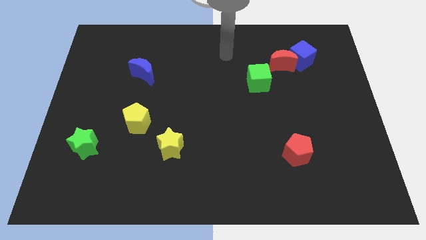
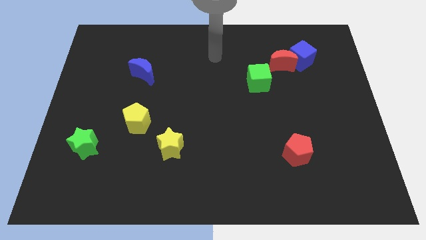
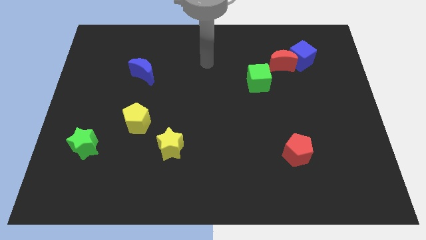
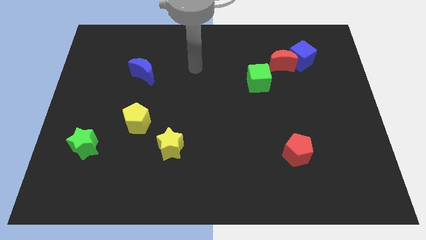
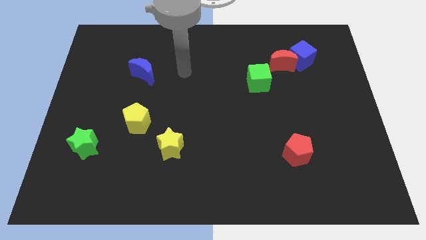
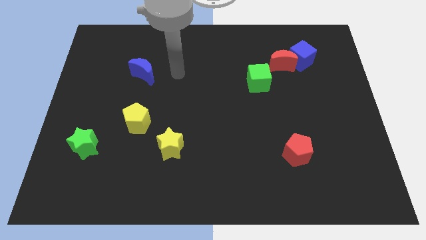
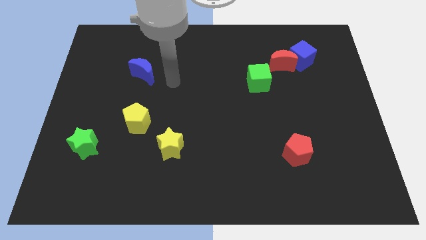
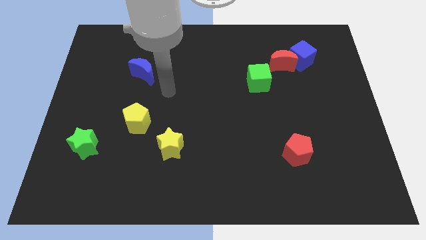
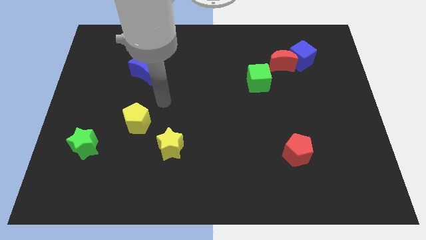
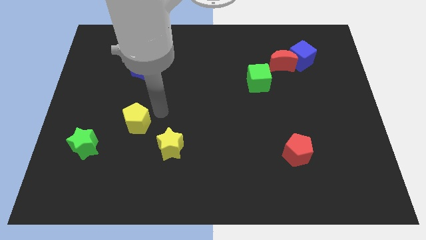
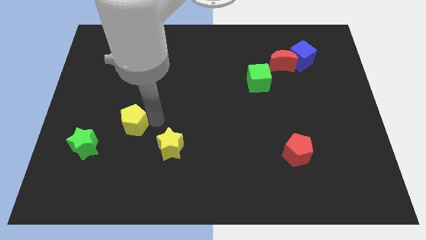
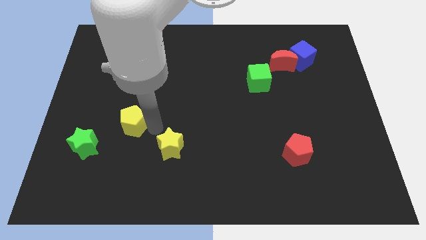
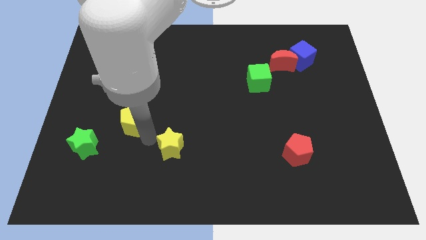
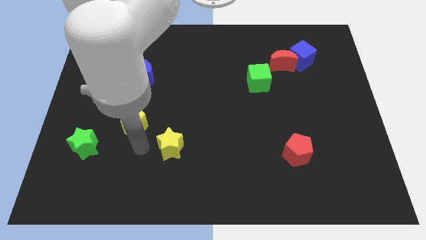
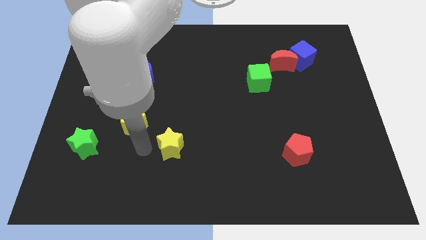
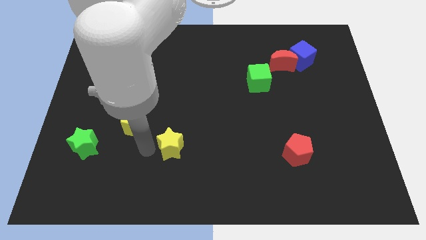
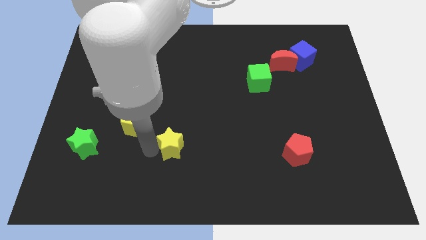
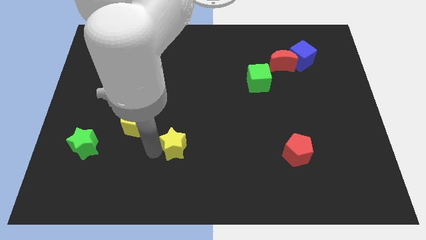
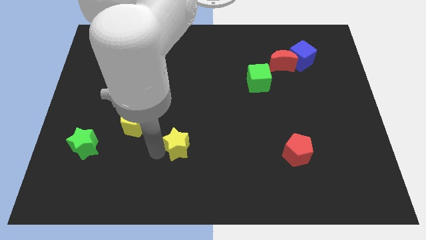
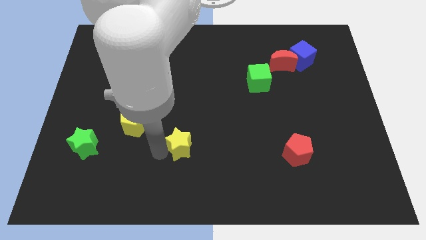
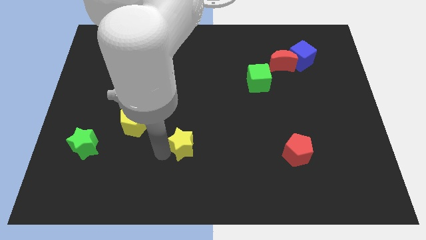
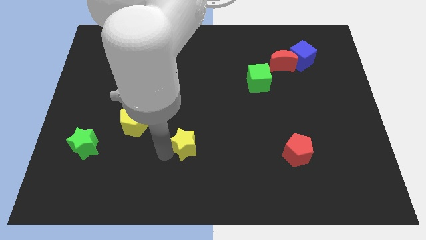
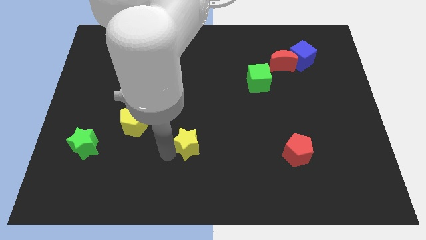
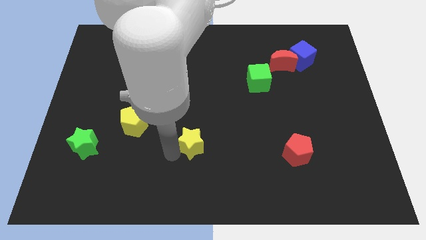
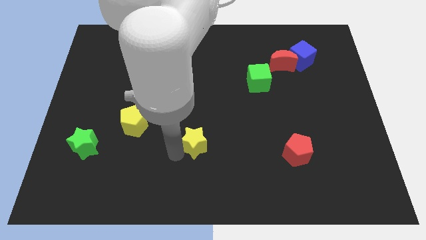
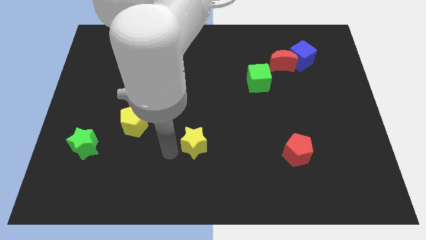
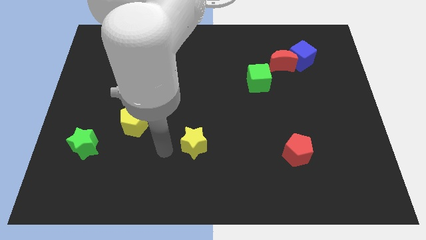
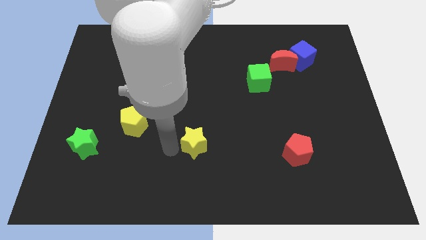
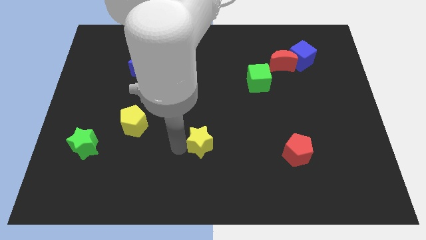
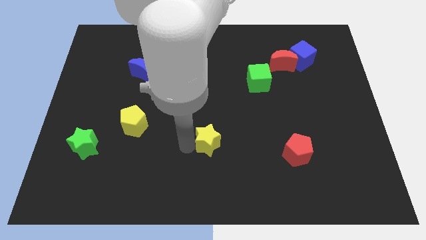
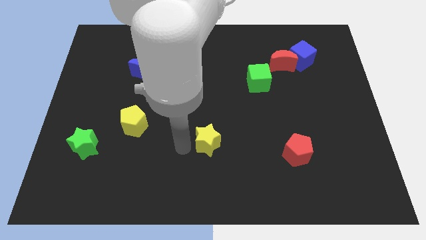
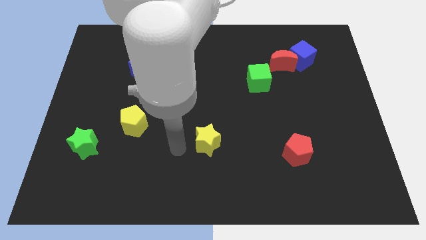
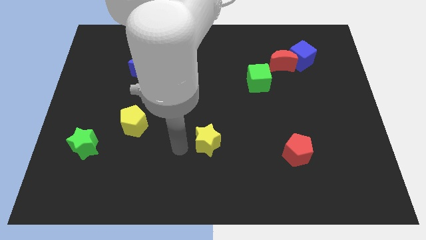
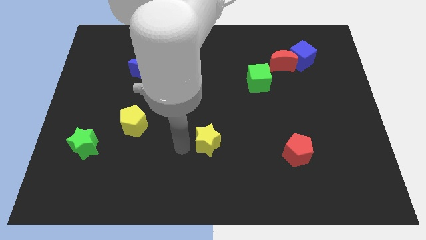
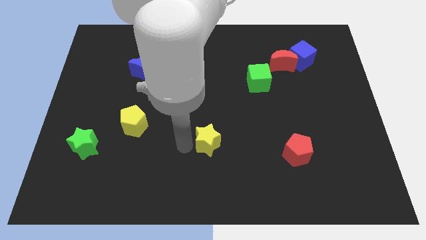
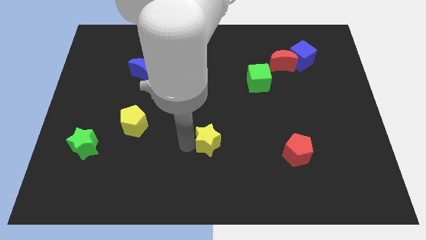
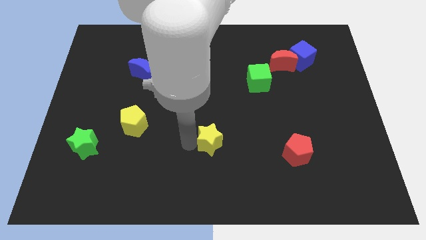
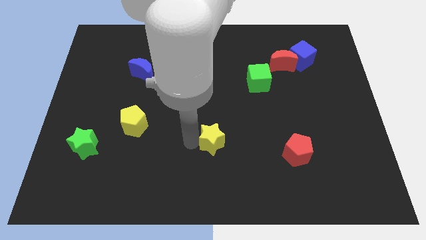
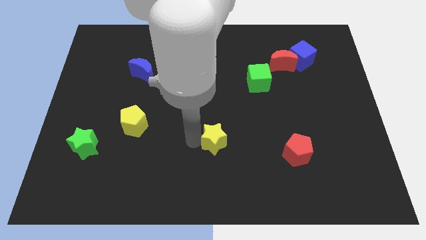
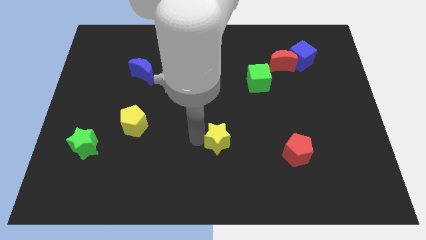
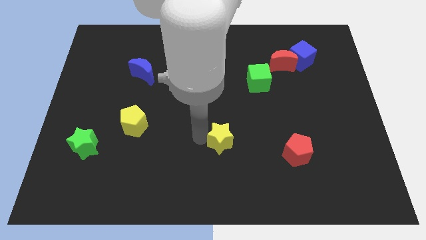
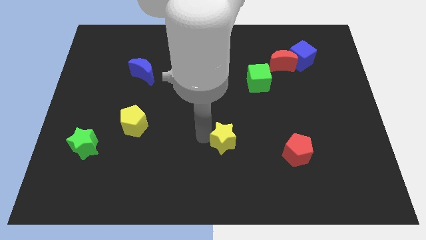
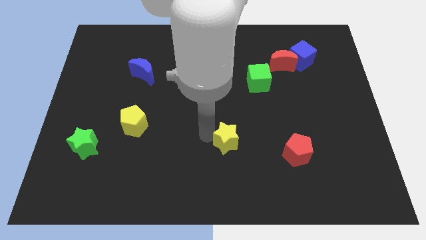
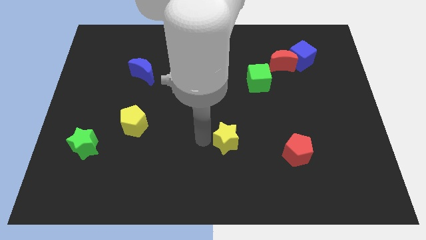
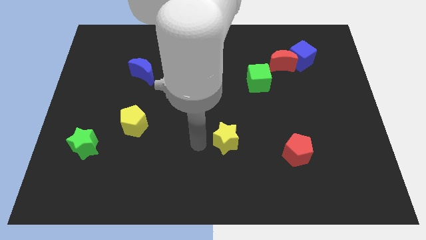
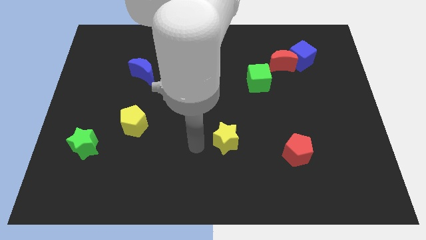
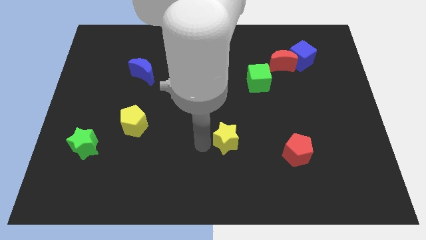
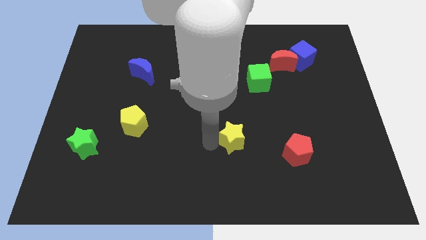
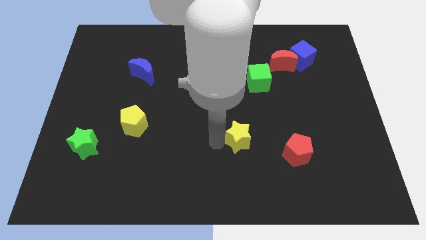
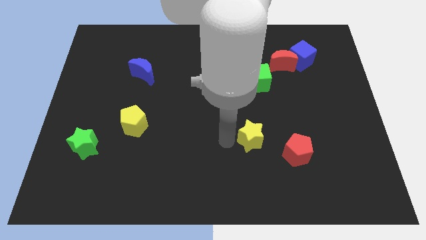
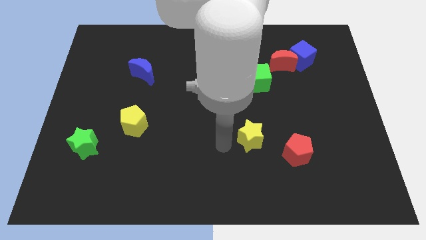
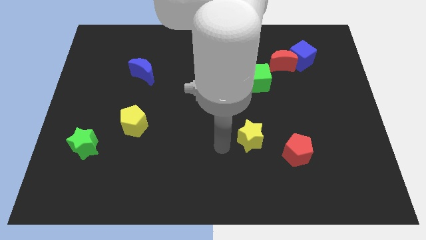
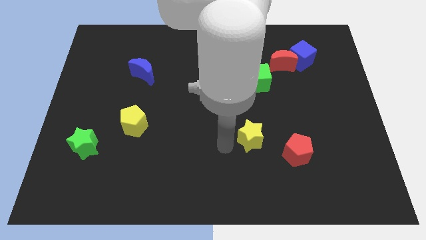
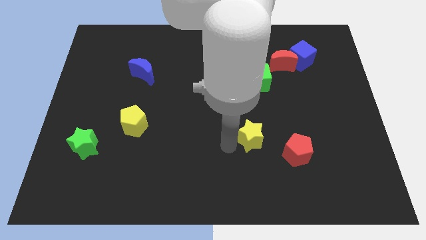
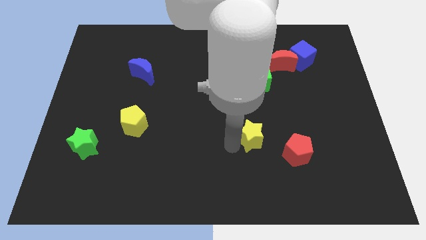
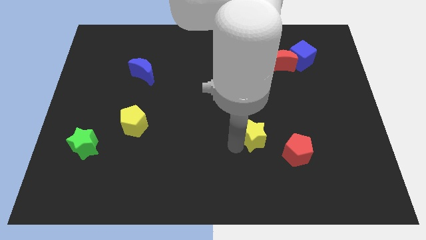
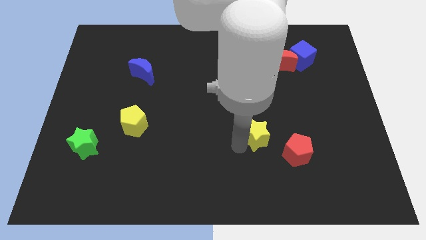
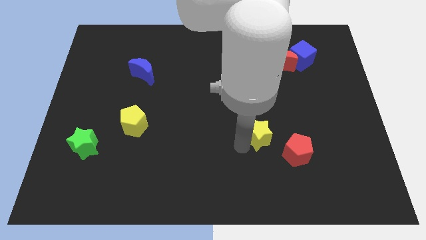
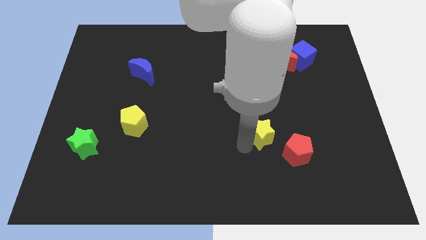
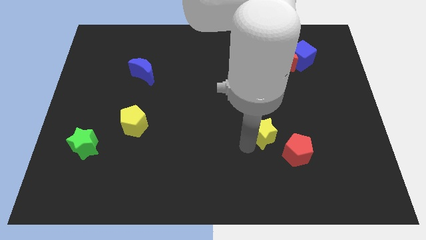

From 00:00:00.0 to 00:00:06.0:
push the yellow star right

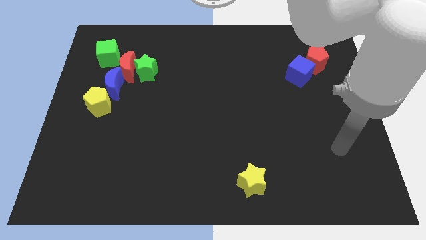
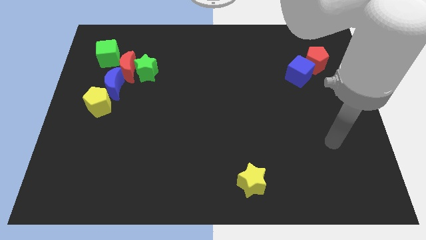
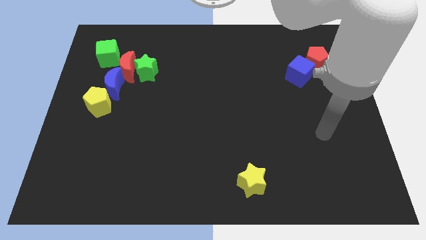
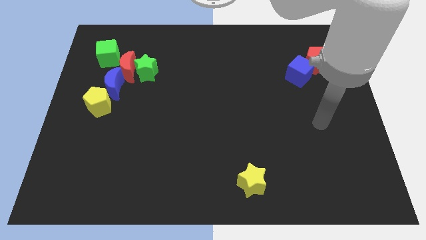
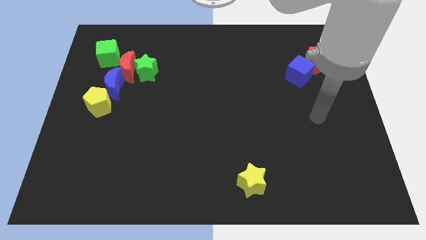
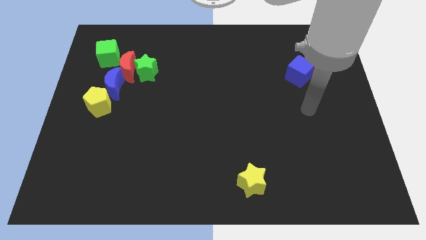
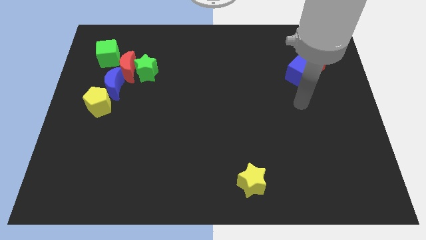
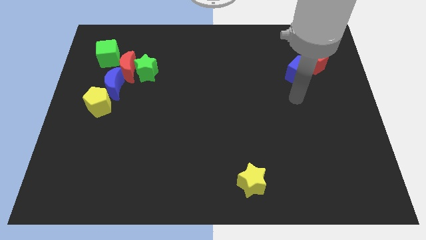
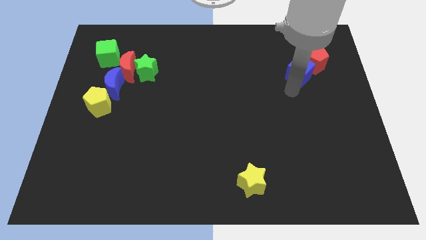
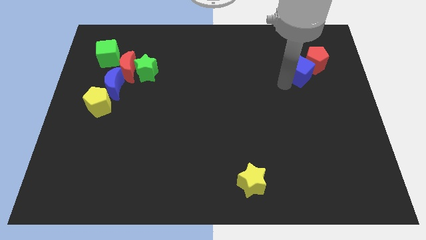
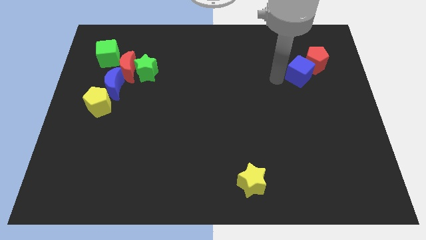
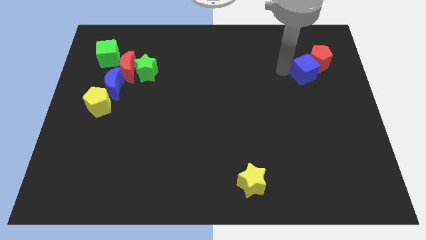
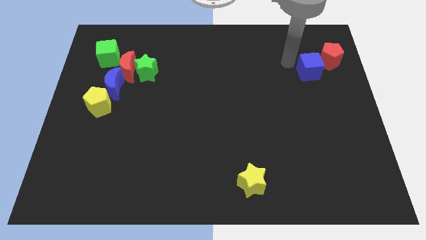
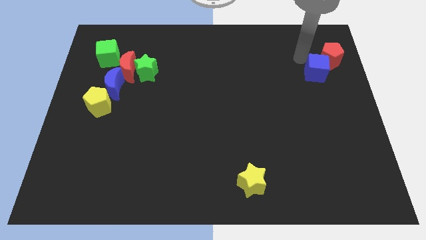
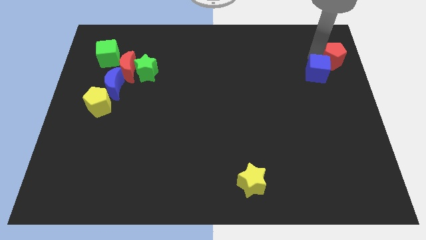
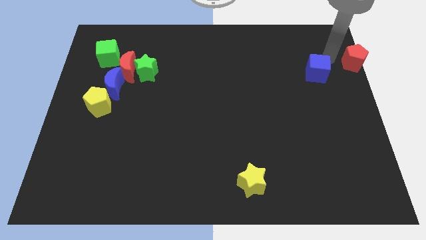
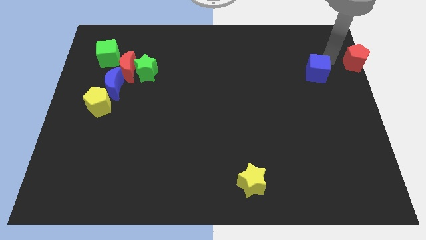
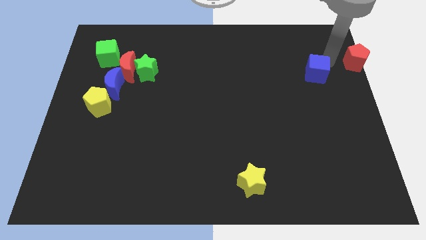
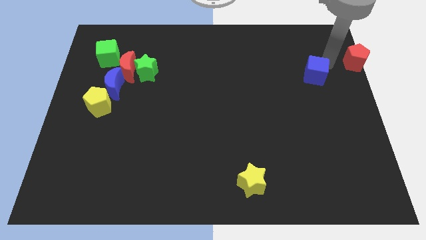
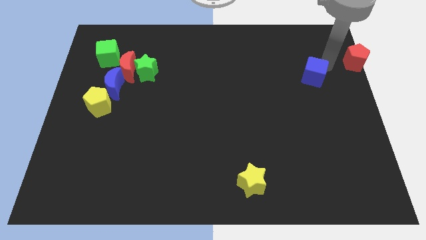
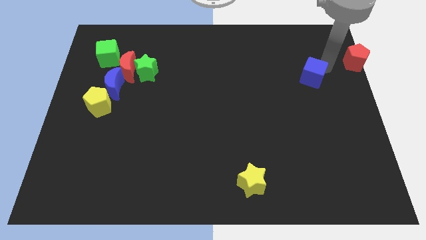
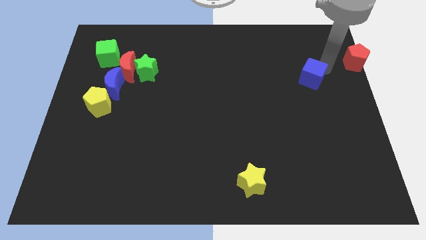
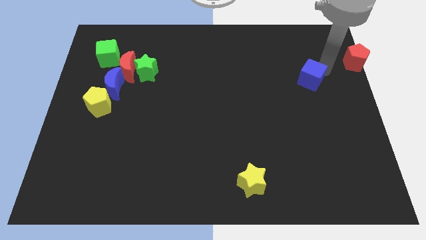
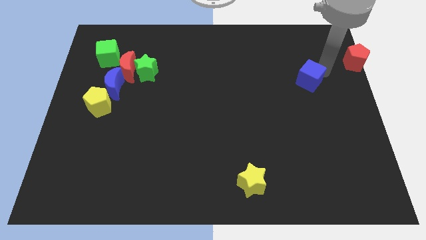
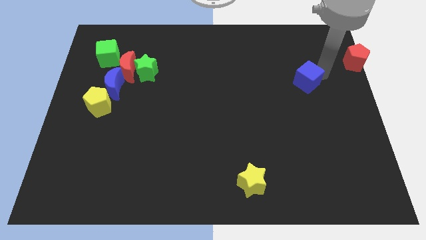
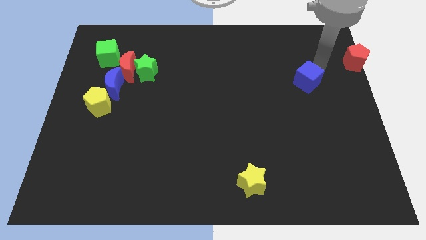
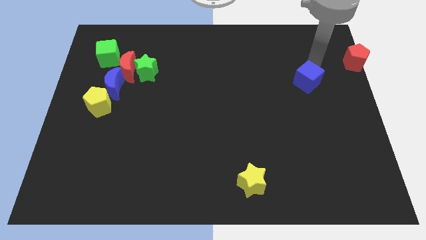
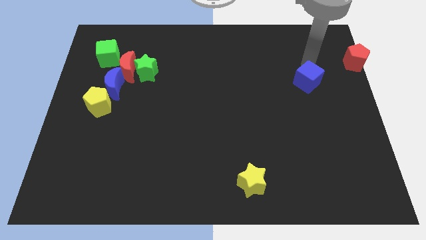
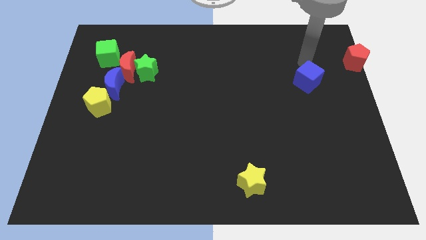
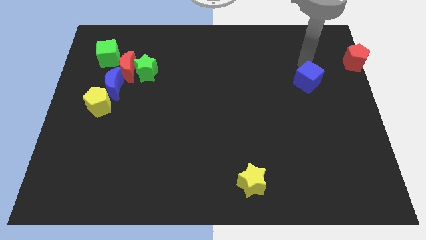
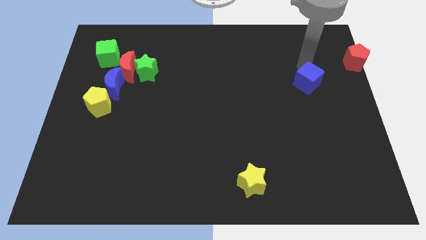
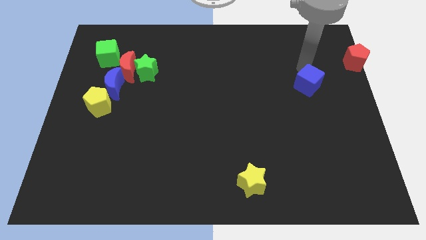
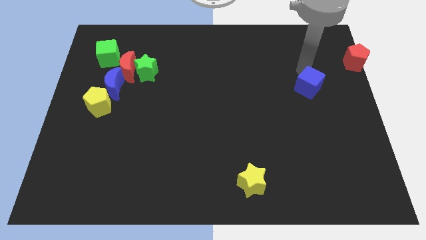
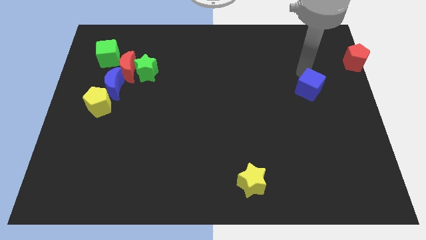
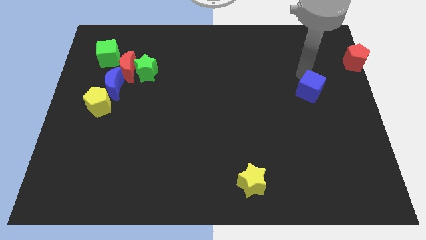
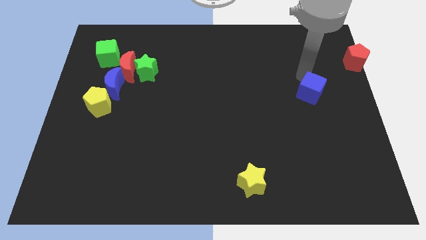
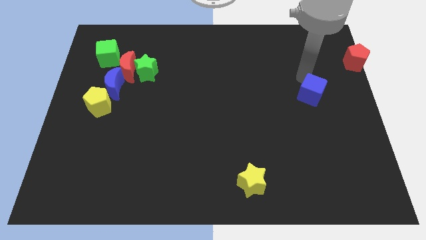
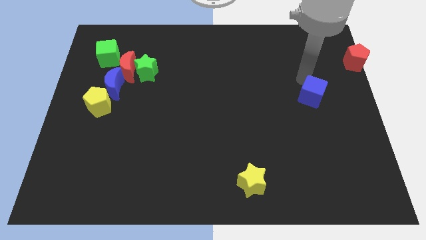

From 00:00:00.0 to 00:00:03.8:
slide the blue cube down somewhat
